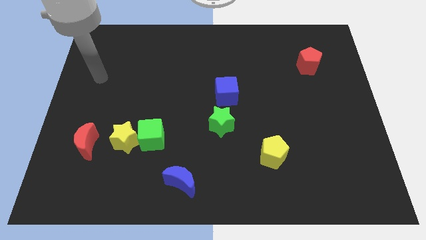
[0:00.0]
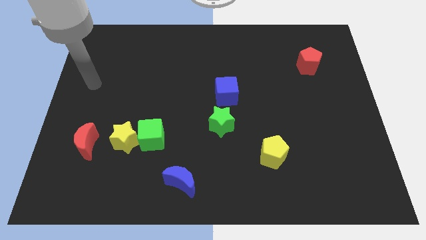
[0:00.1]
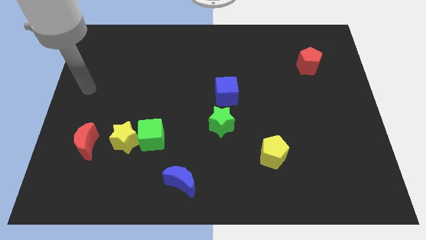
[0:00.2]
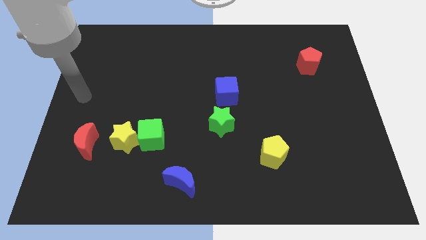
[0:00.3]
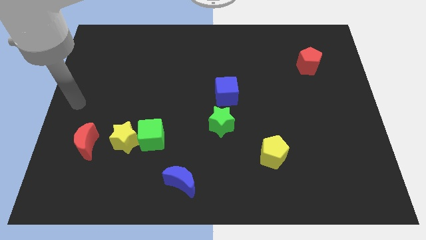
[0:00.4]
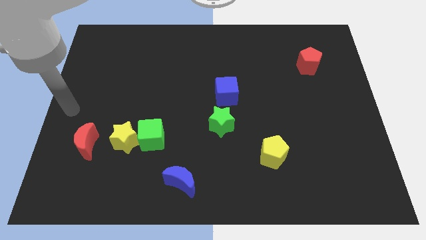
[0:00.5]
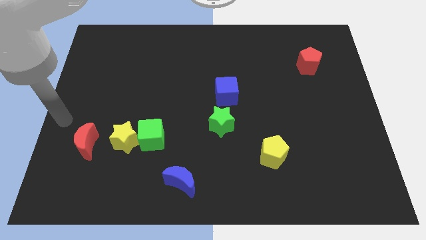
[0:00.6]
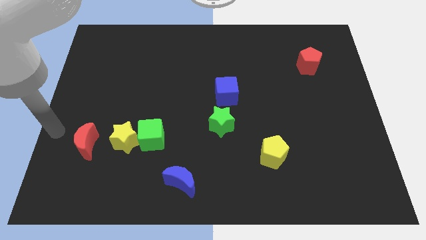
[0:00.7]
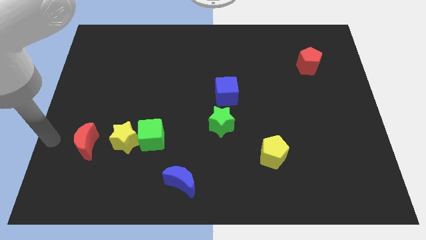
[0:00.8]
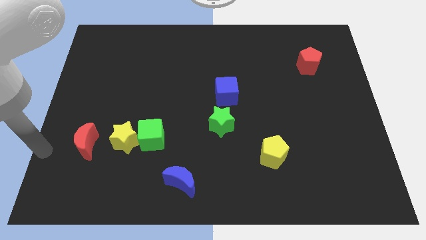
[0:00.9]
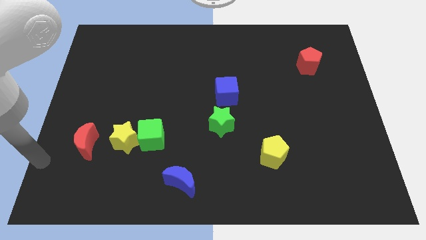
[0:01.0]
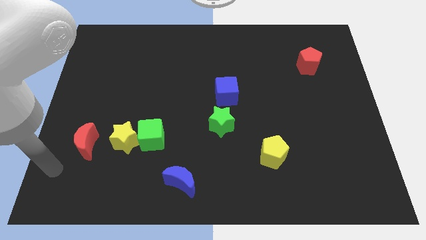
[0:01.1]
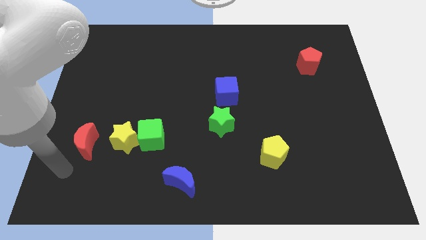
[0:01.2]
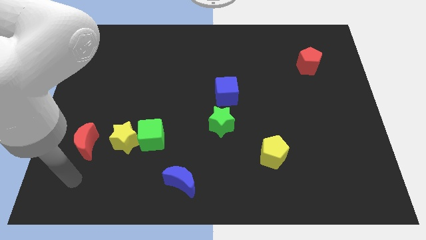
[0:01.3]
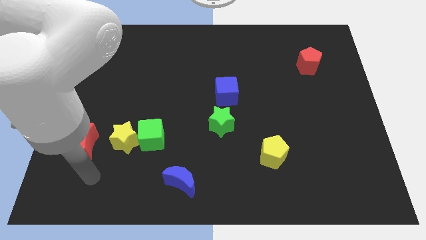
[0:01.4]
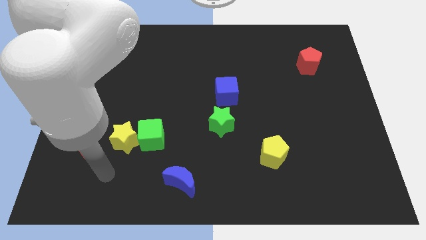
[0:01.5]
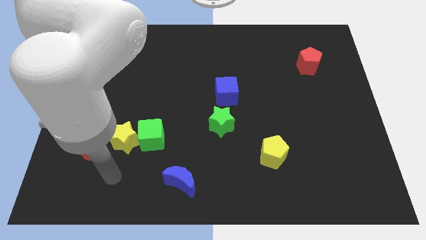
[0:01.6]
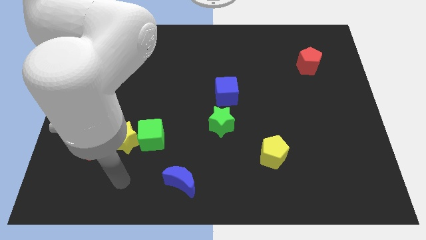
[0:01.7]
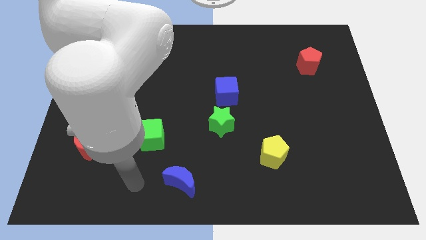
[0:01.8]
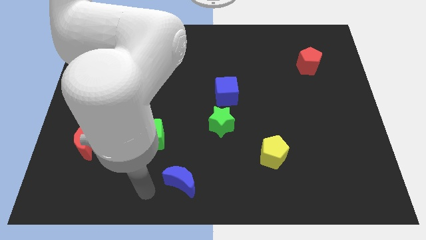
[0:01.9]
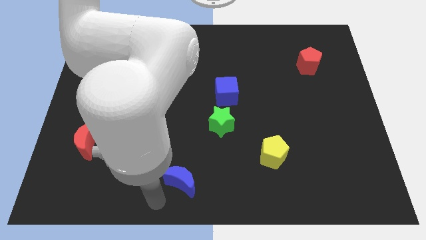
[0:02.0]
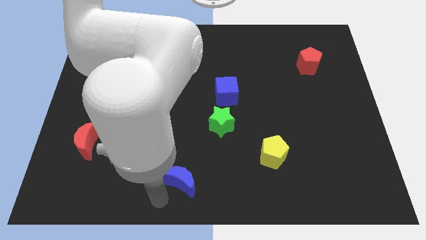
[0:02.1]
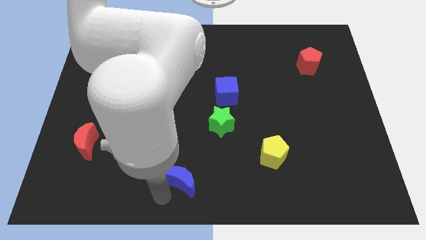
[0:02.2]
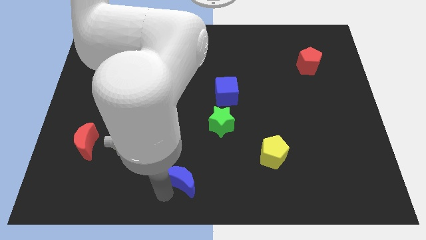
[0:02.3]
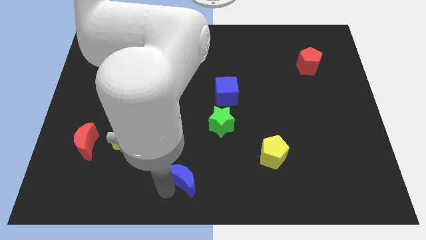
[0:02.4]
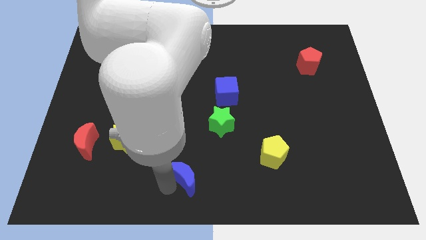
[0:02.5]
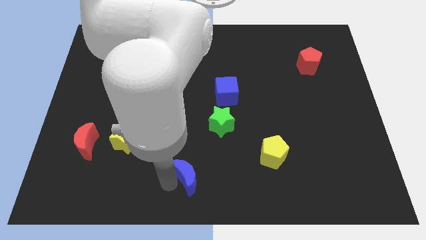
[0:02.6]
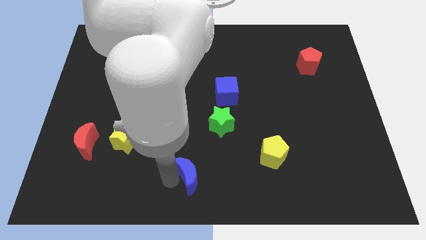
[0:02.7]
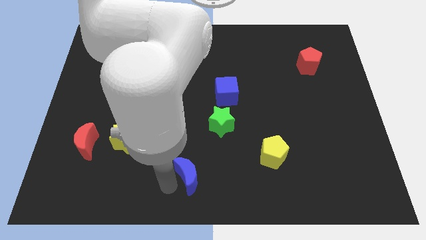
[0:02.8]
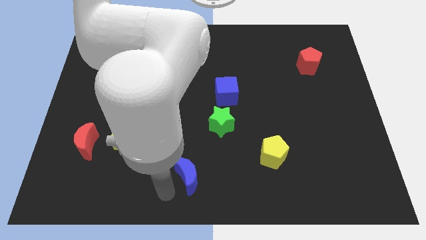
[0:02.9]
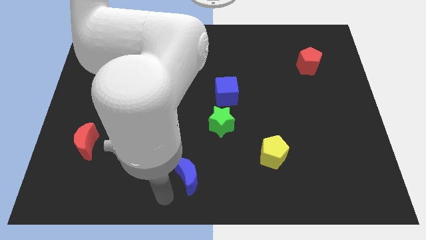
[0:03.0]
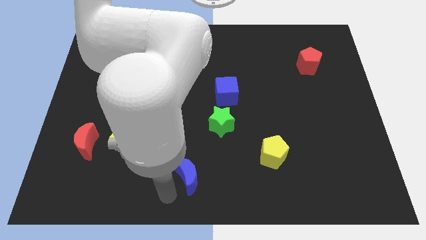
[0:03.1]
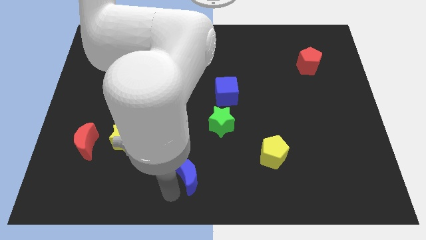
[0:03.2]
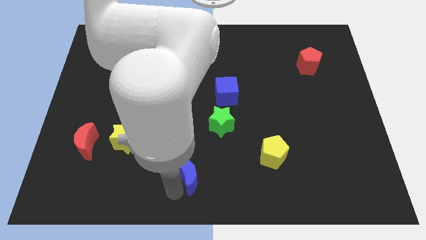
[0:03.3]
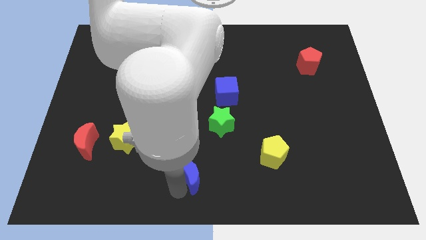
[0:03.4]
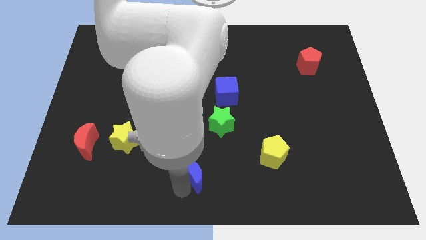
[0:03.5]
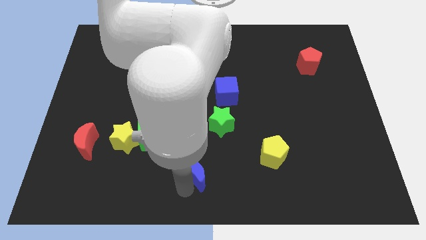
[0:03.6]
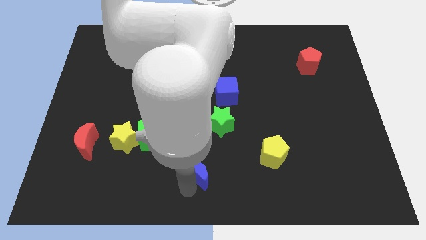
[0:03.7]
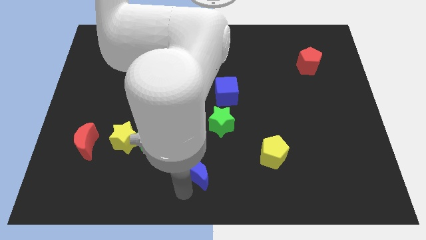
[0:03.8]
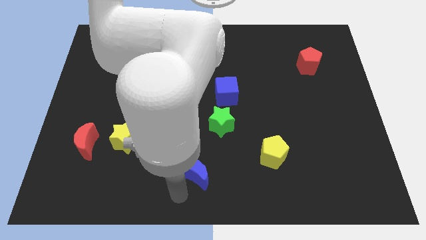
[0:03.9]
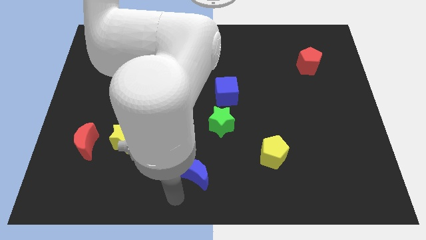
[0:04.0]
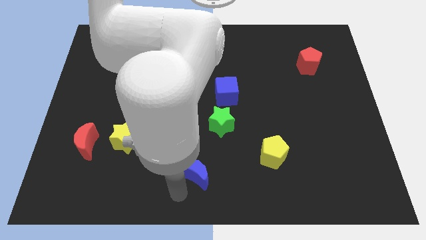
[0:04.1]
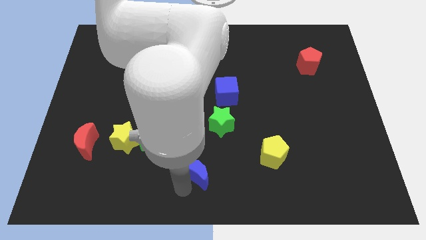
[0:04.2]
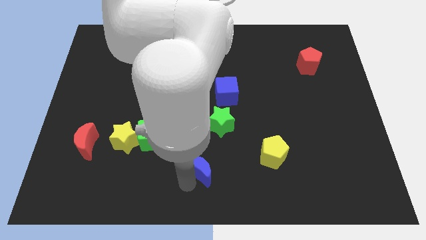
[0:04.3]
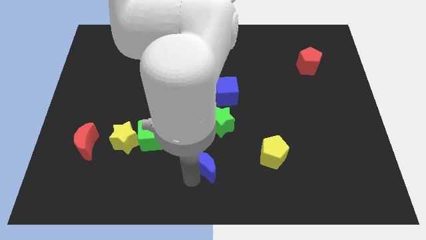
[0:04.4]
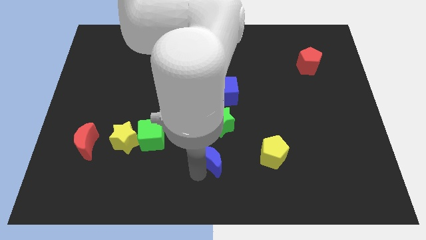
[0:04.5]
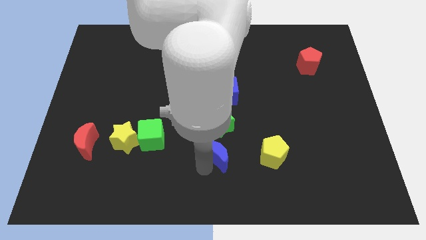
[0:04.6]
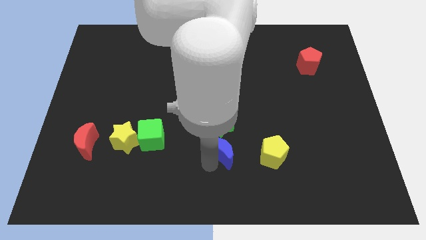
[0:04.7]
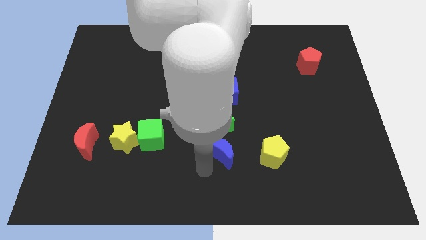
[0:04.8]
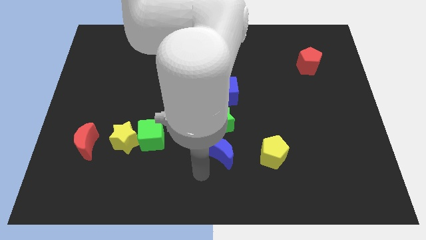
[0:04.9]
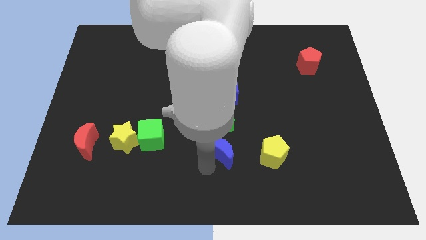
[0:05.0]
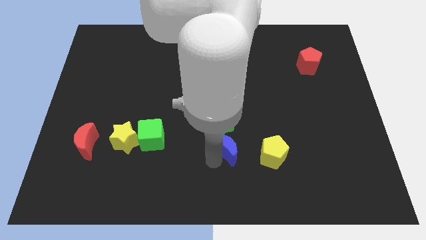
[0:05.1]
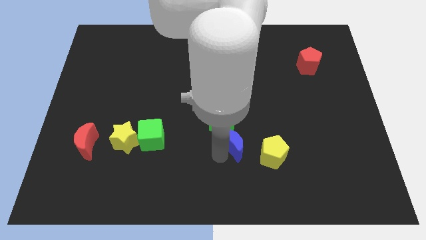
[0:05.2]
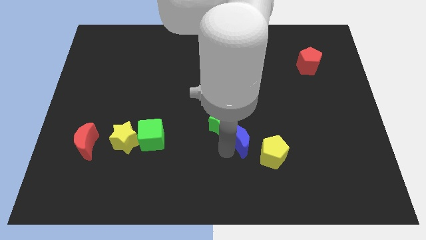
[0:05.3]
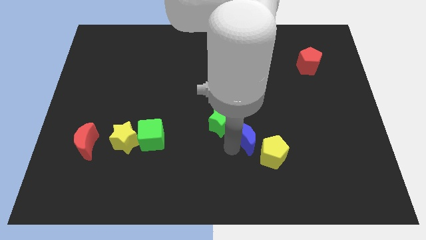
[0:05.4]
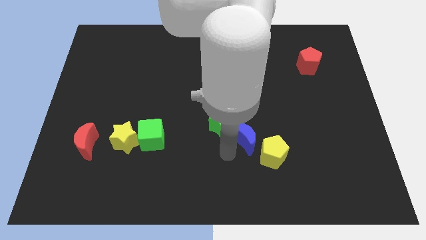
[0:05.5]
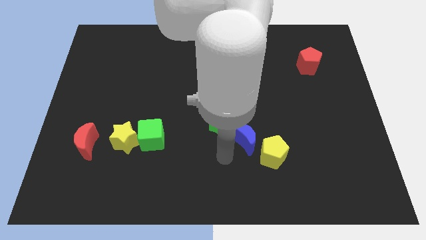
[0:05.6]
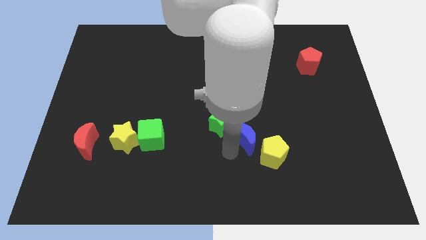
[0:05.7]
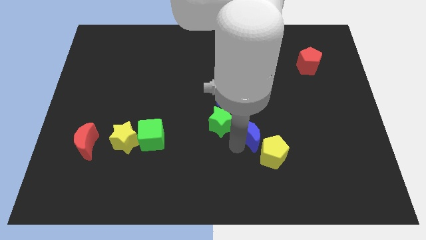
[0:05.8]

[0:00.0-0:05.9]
slide the blue moon above the yellow pentagon
